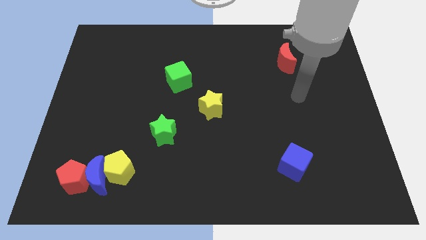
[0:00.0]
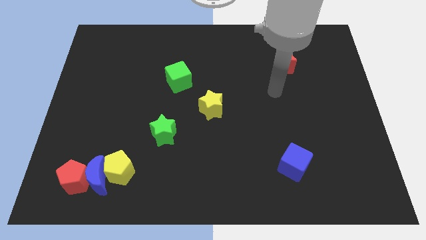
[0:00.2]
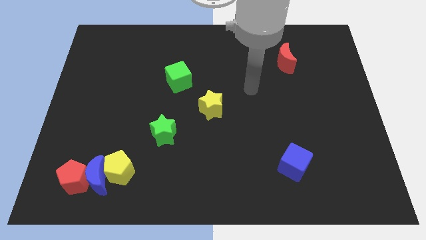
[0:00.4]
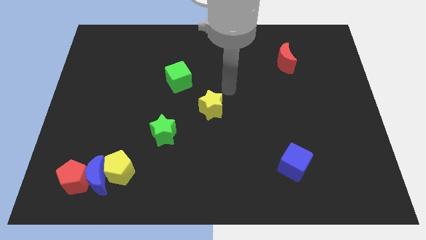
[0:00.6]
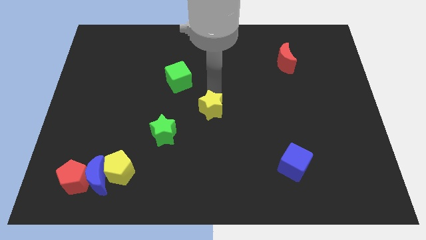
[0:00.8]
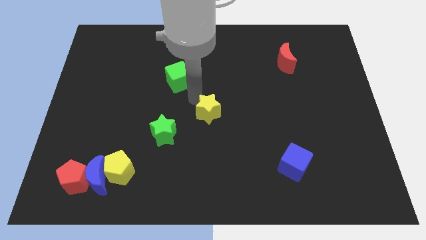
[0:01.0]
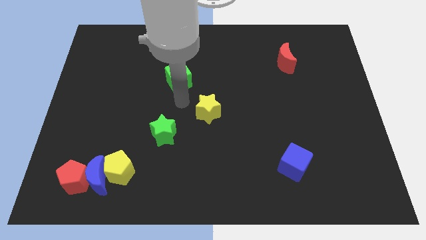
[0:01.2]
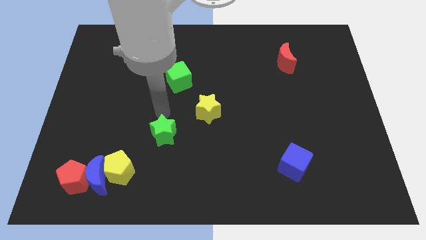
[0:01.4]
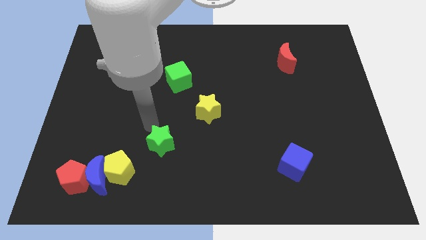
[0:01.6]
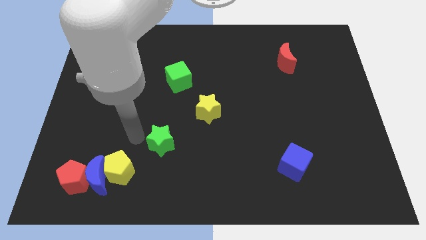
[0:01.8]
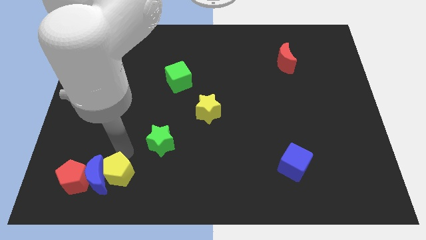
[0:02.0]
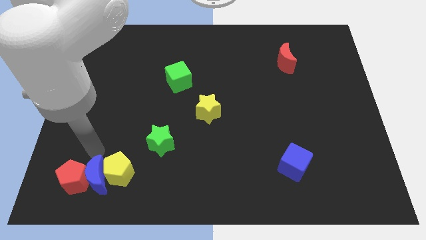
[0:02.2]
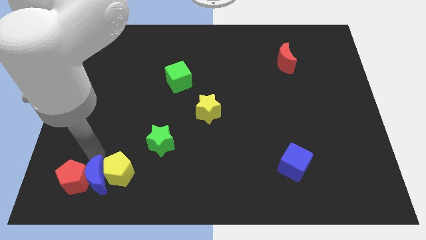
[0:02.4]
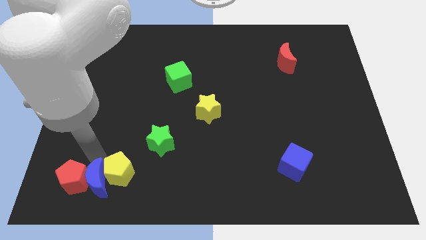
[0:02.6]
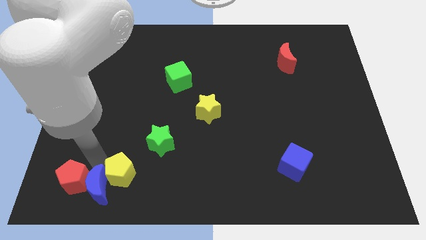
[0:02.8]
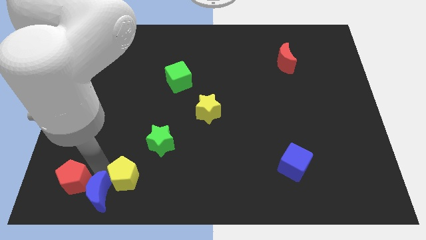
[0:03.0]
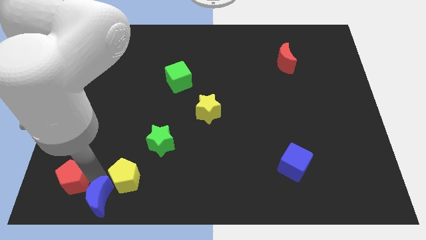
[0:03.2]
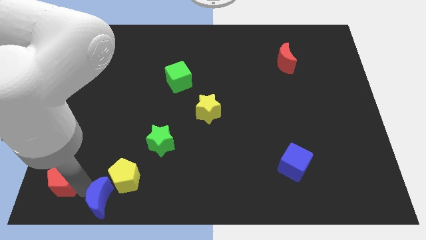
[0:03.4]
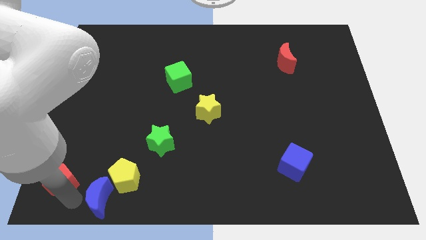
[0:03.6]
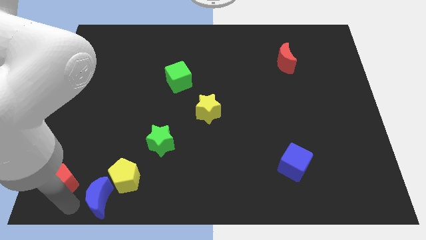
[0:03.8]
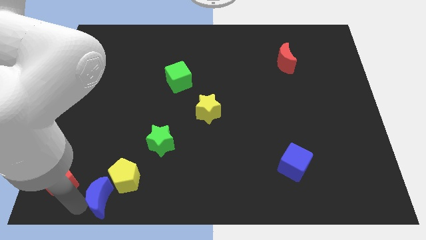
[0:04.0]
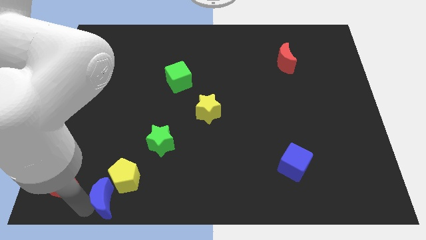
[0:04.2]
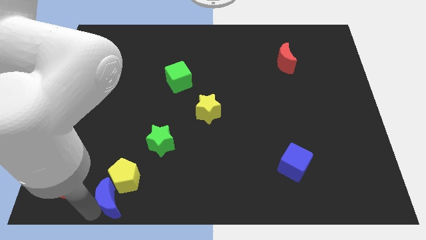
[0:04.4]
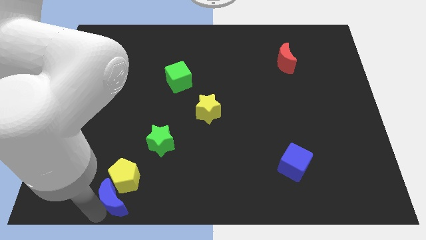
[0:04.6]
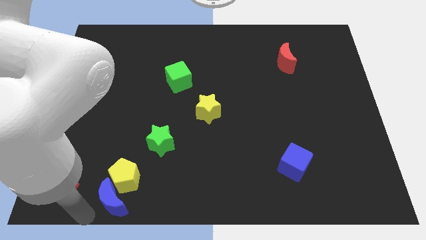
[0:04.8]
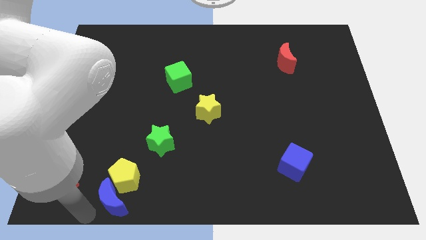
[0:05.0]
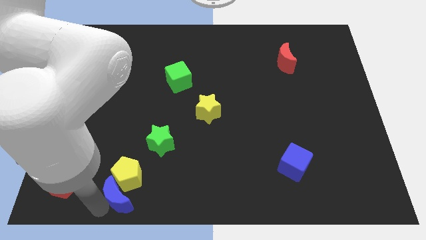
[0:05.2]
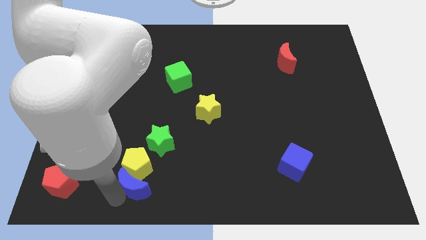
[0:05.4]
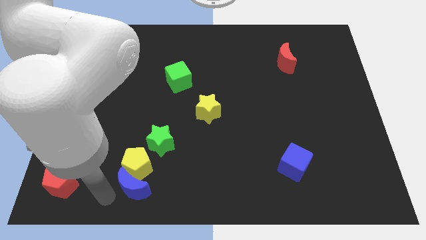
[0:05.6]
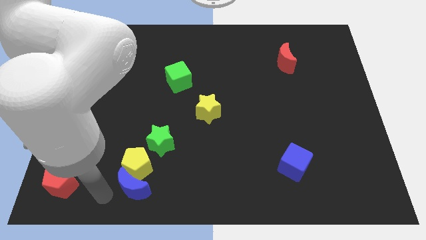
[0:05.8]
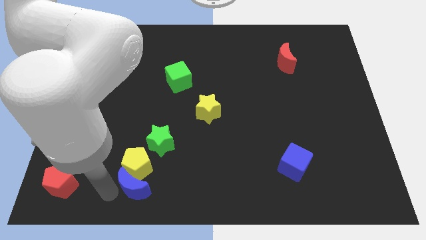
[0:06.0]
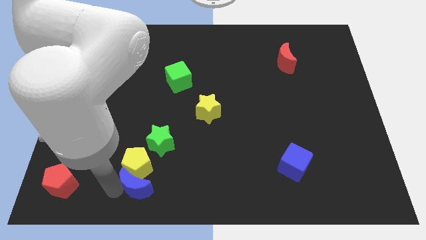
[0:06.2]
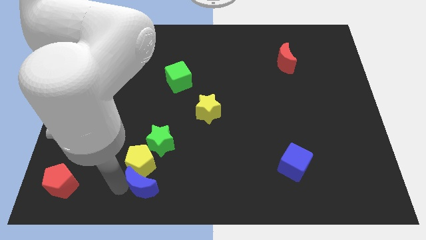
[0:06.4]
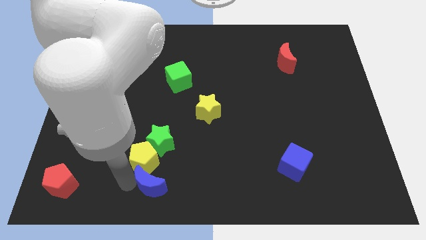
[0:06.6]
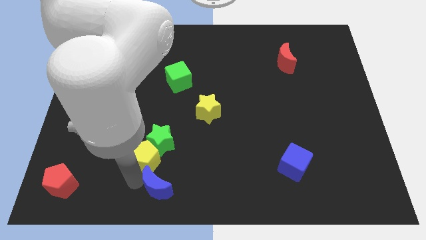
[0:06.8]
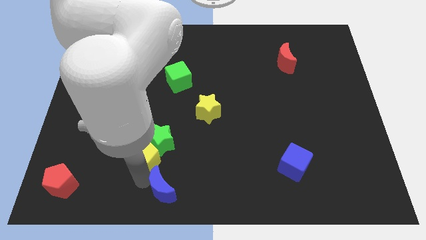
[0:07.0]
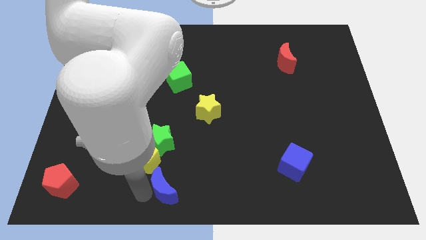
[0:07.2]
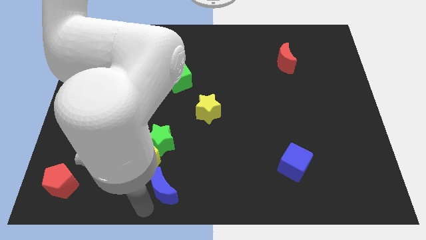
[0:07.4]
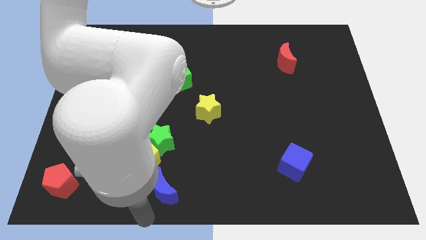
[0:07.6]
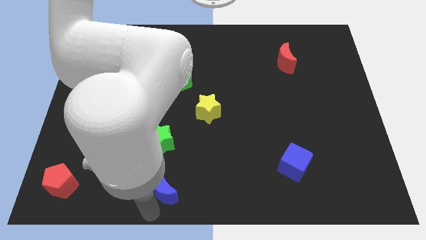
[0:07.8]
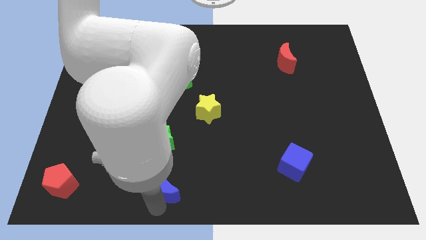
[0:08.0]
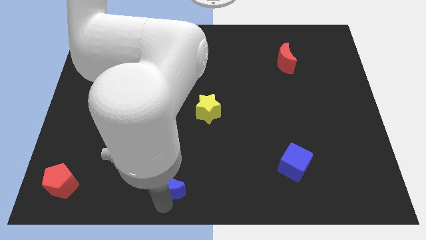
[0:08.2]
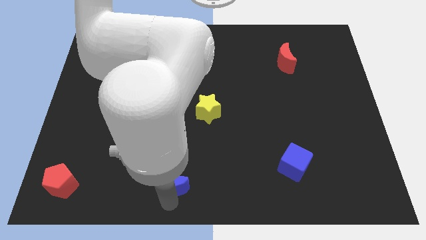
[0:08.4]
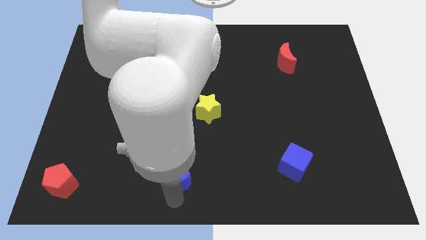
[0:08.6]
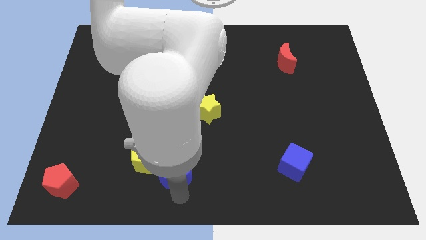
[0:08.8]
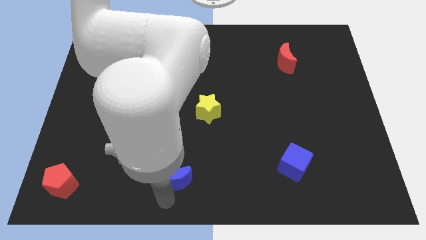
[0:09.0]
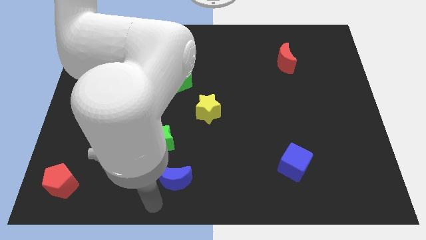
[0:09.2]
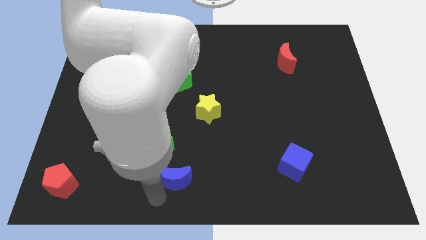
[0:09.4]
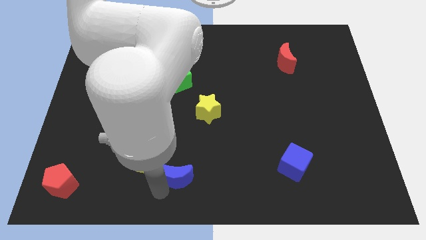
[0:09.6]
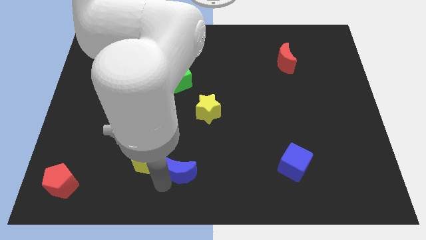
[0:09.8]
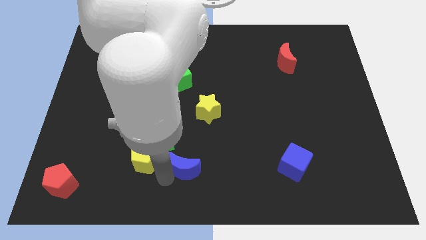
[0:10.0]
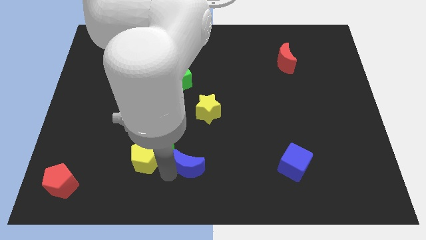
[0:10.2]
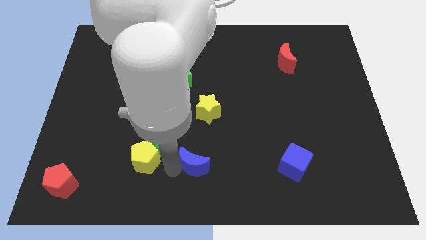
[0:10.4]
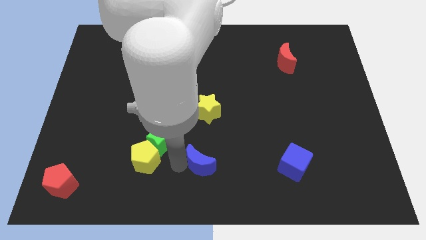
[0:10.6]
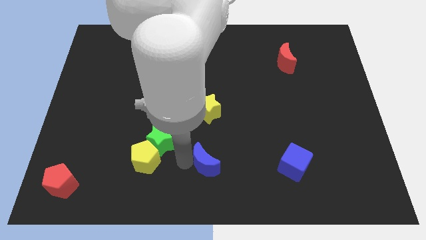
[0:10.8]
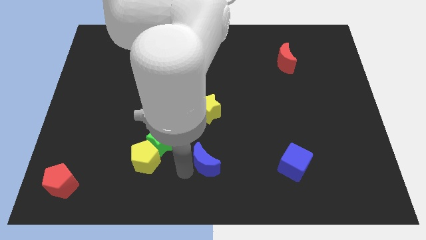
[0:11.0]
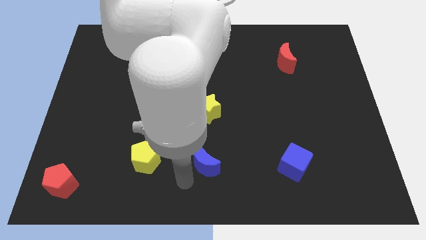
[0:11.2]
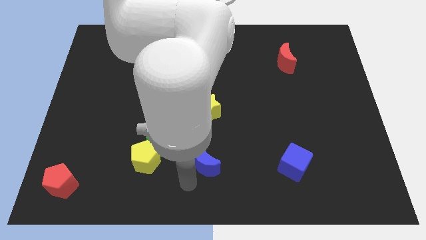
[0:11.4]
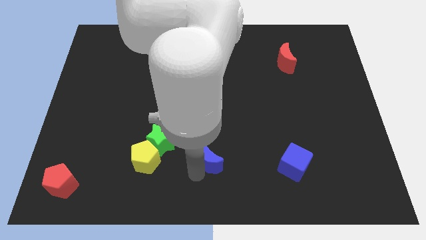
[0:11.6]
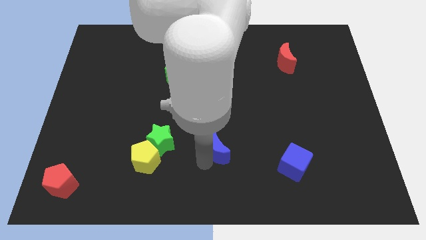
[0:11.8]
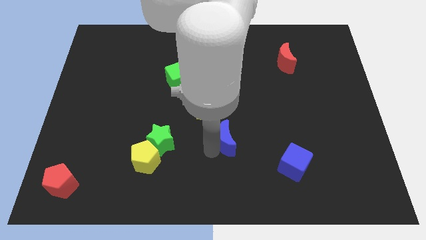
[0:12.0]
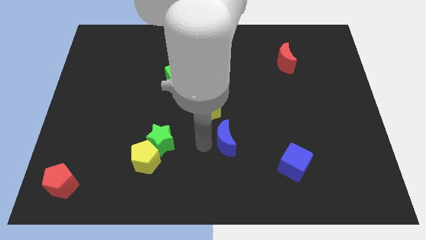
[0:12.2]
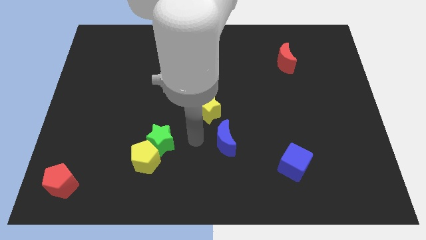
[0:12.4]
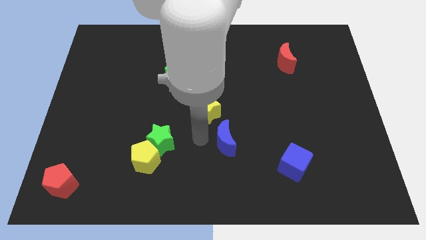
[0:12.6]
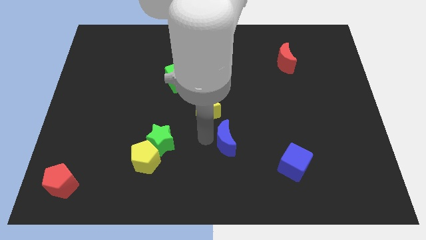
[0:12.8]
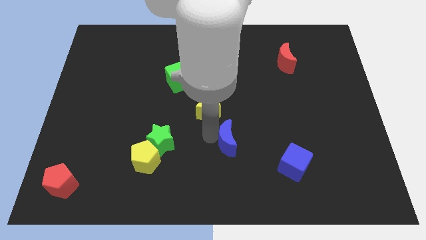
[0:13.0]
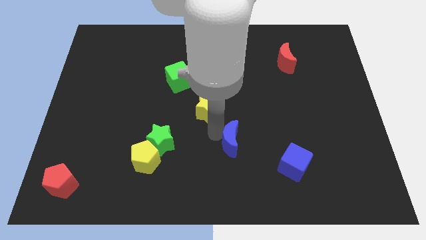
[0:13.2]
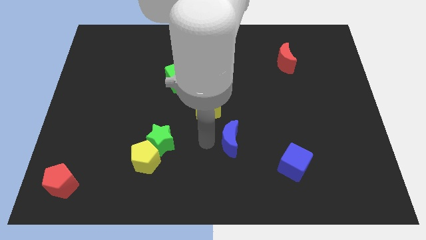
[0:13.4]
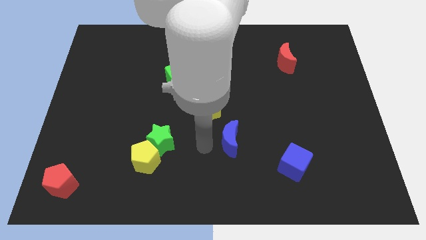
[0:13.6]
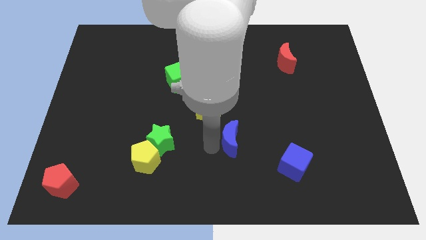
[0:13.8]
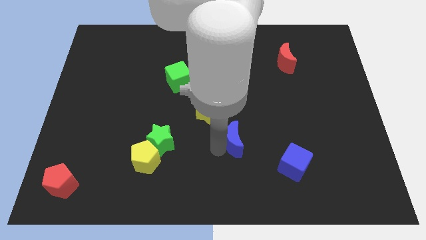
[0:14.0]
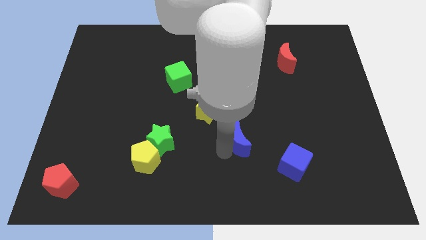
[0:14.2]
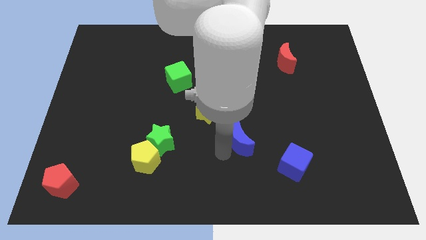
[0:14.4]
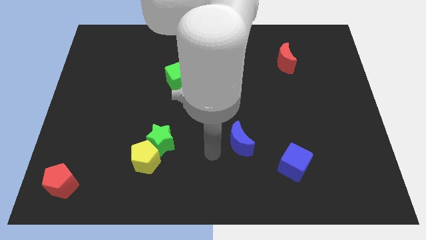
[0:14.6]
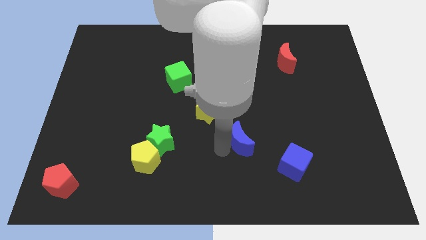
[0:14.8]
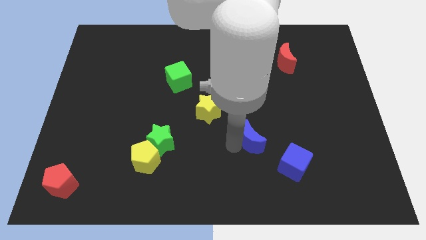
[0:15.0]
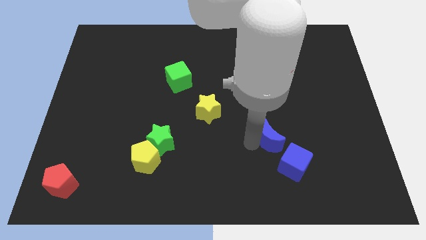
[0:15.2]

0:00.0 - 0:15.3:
put the blue moon to the top of the blue cube
